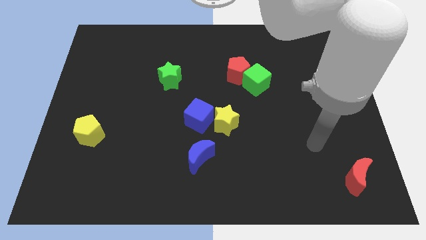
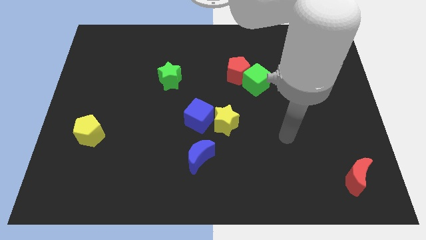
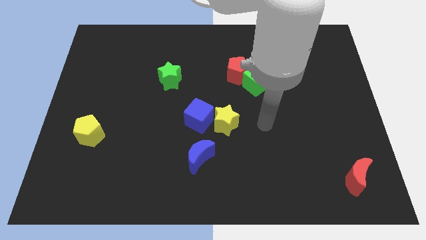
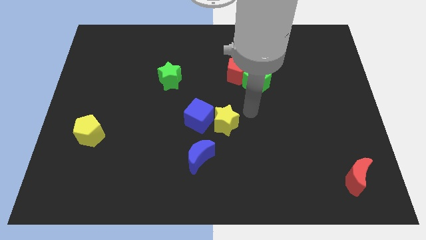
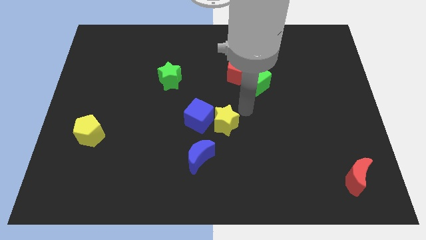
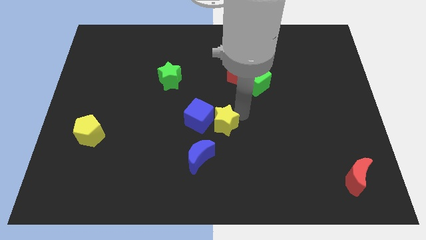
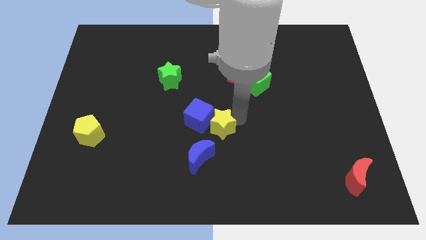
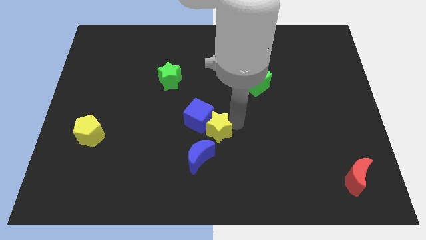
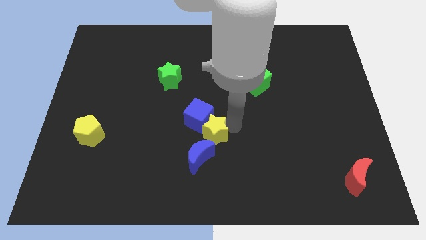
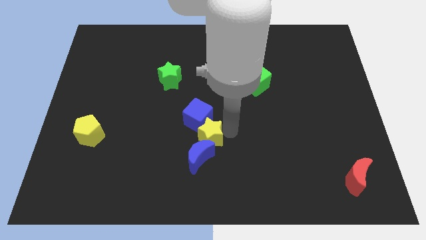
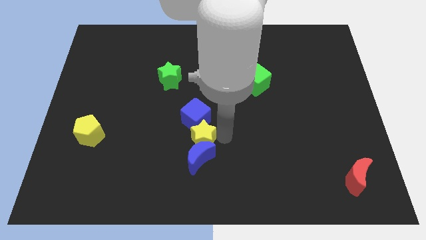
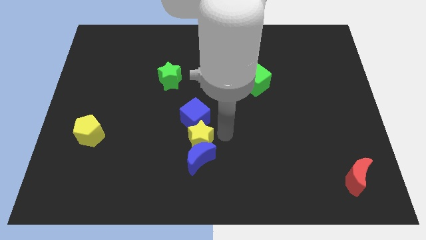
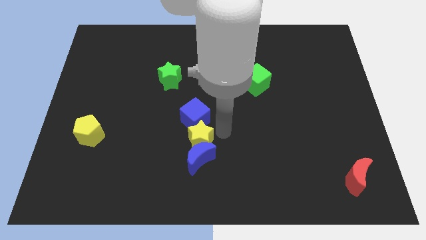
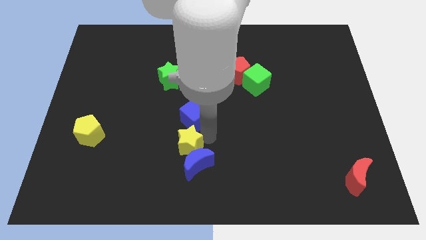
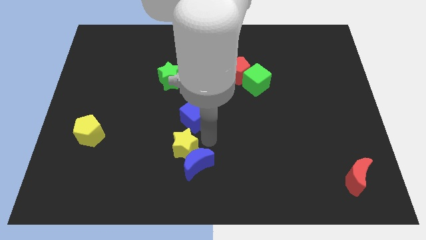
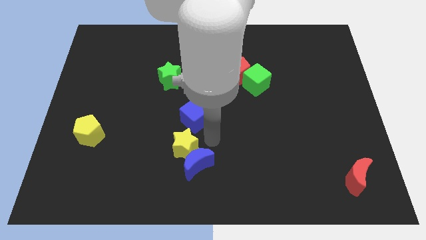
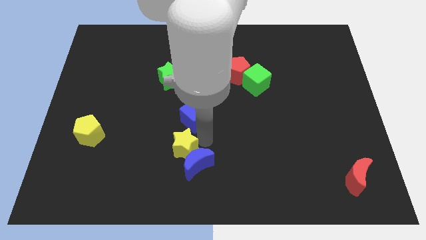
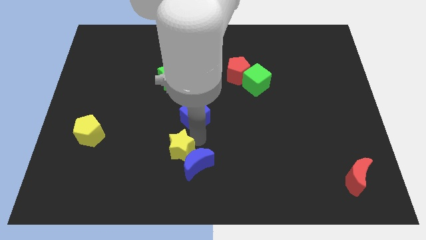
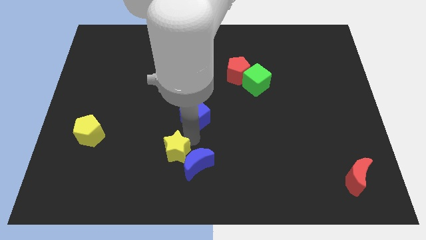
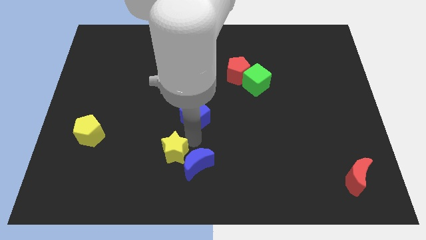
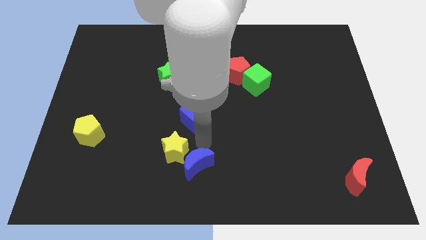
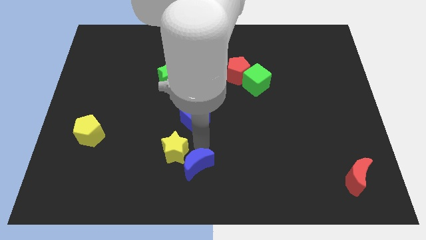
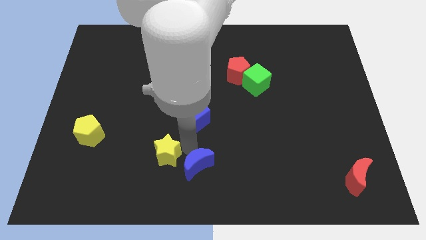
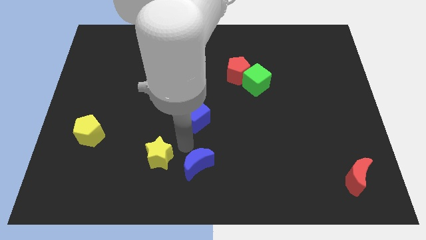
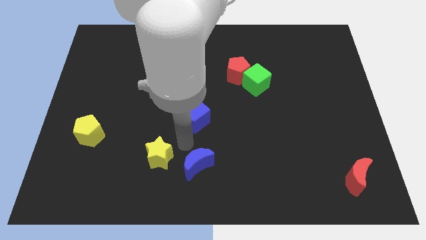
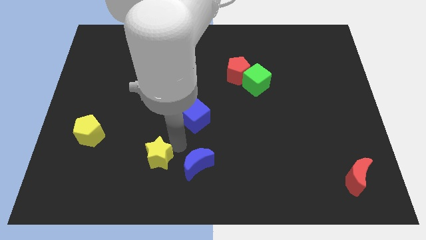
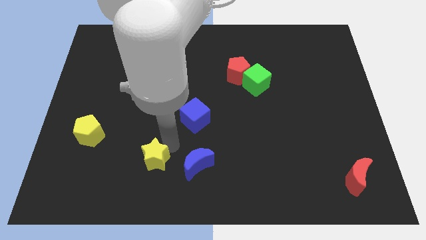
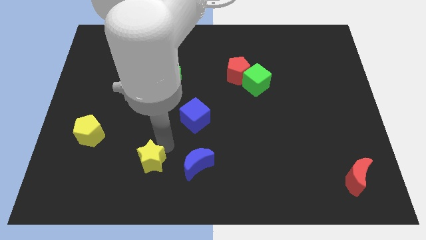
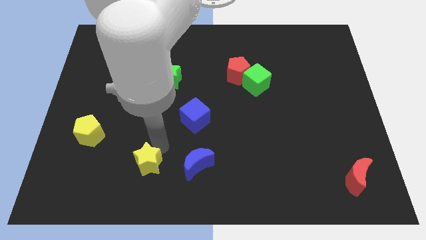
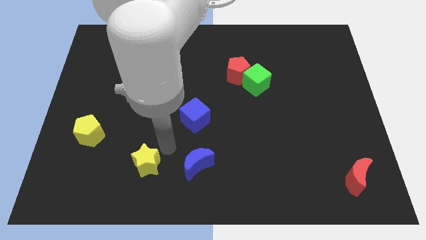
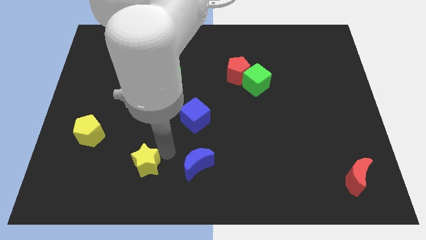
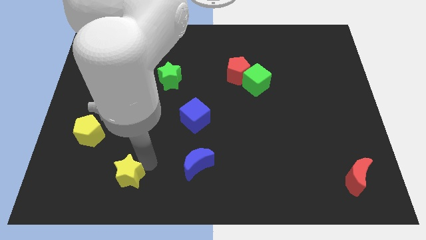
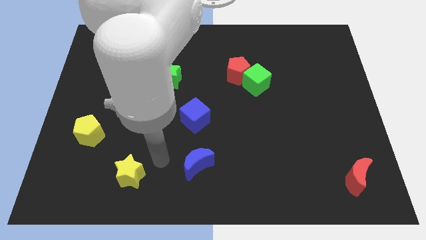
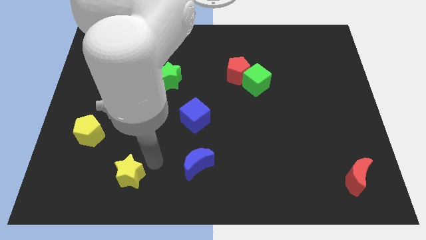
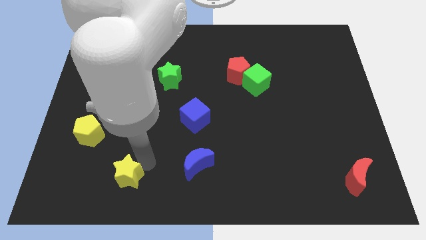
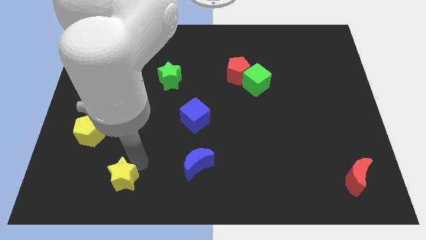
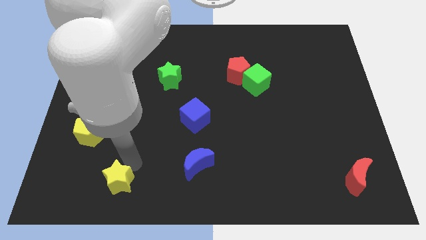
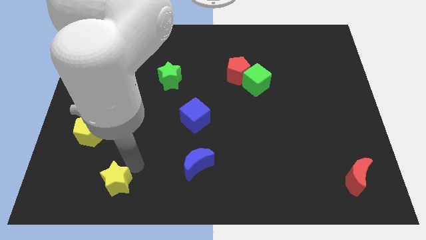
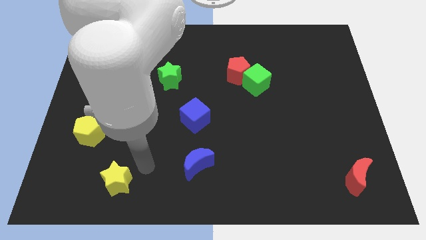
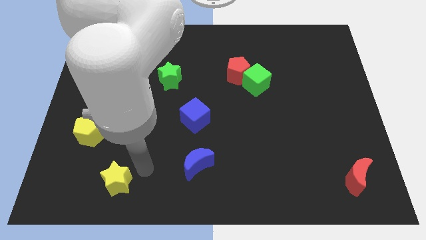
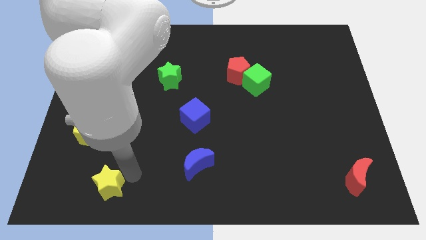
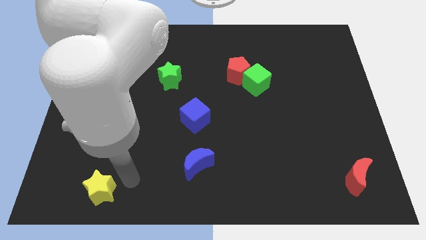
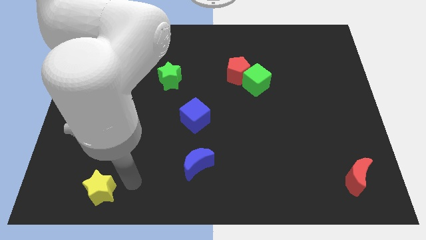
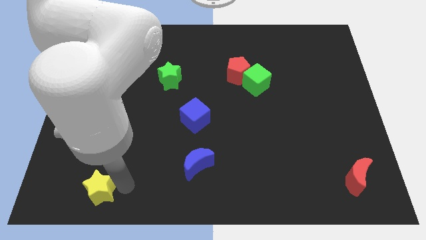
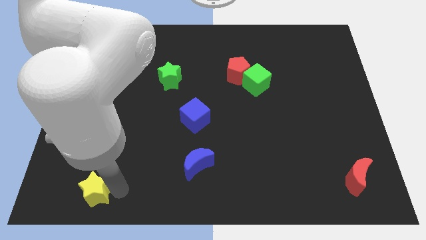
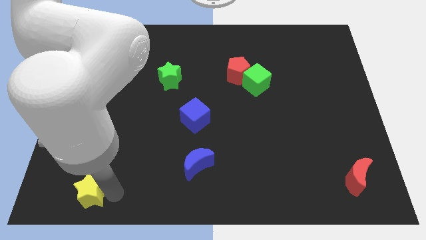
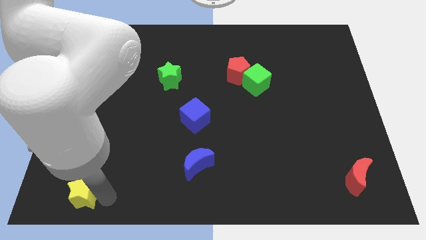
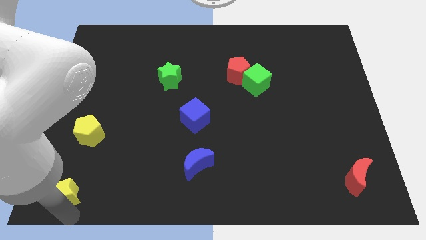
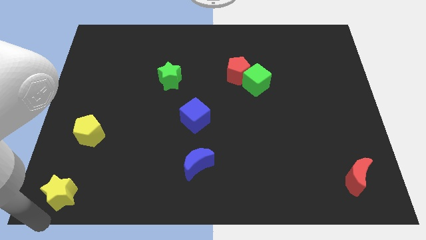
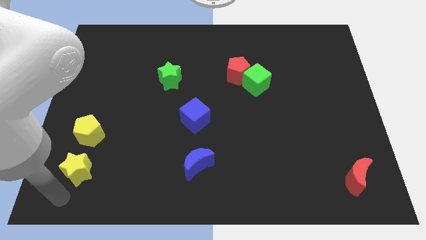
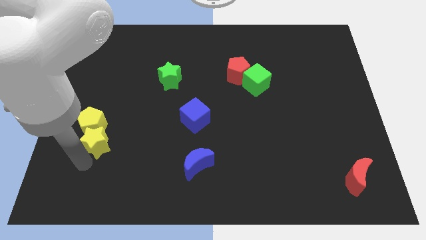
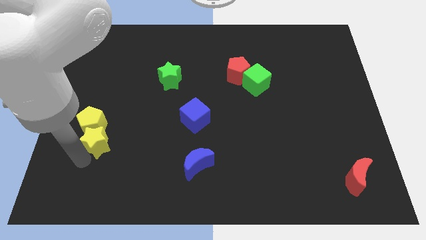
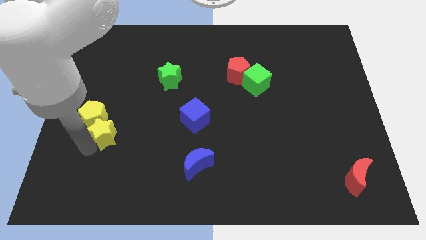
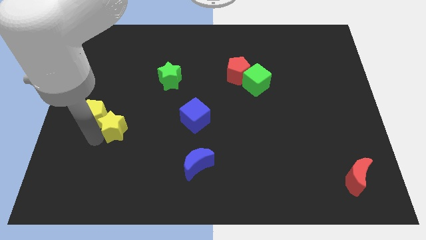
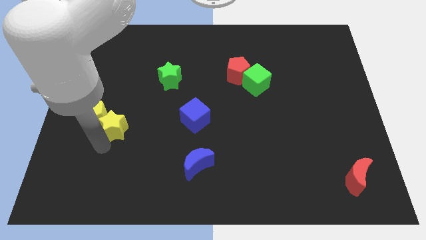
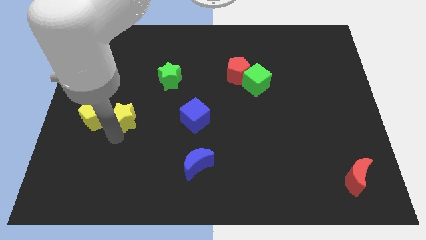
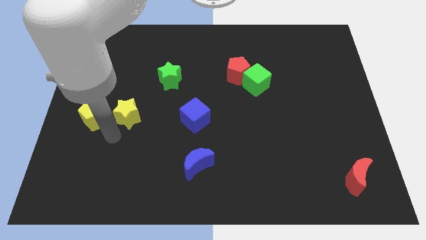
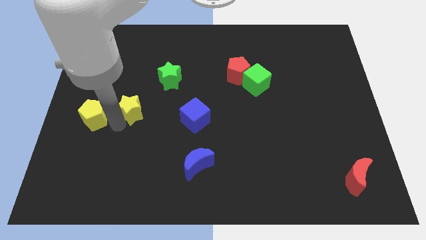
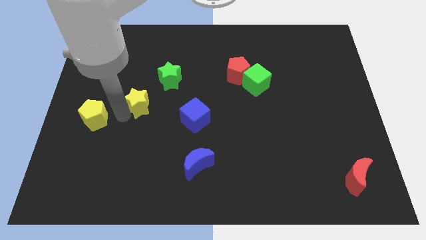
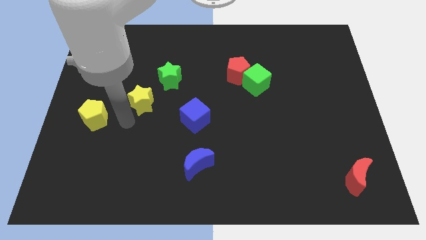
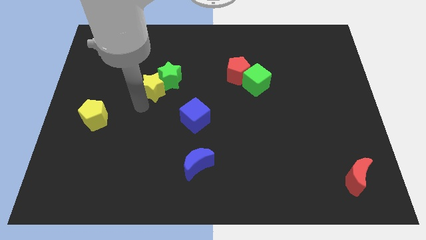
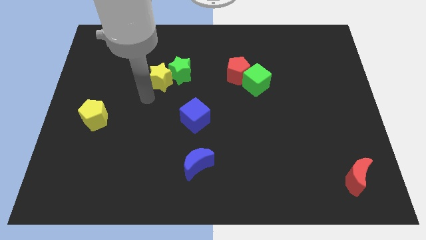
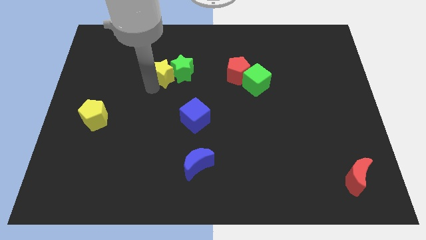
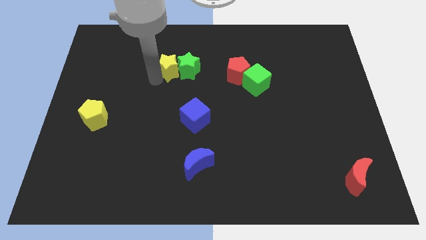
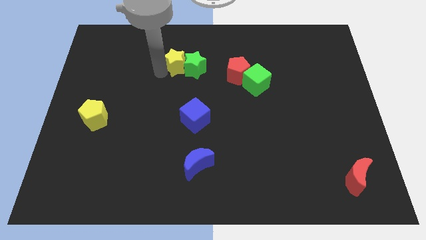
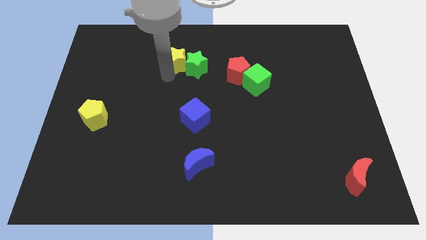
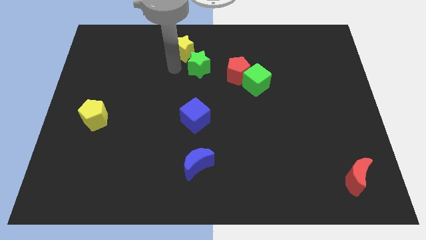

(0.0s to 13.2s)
push the yellow star to the top side
